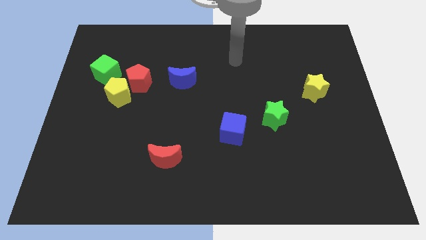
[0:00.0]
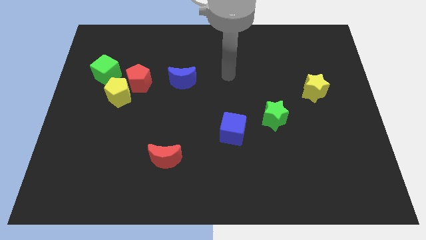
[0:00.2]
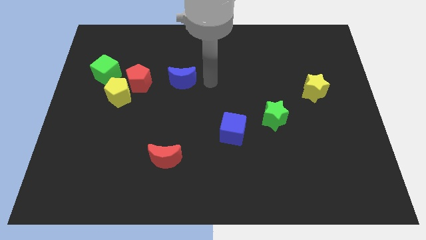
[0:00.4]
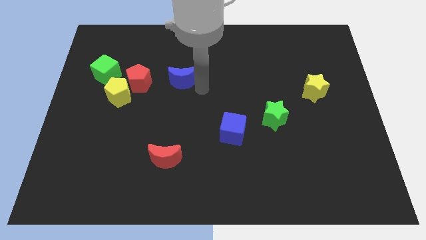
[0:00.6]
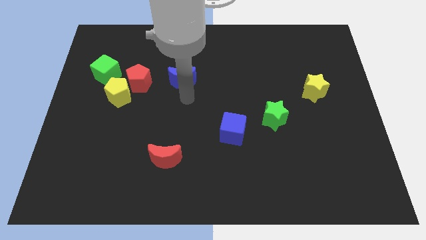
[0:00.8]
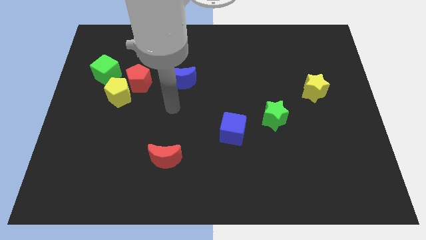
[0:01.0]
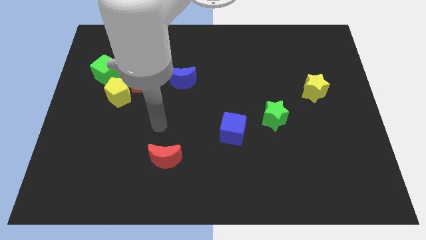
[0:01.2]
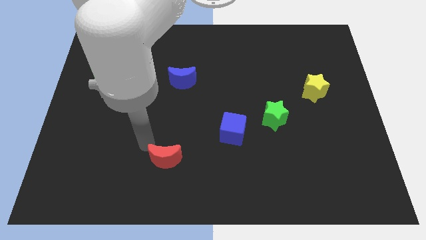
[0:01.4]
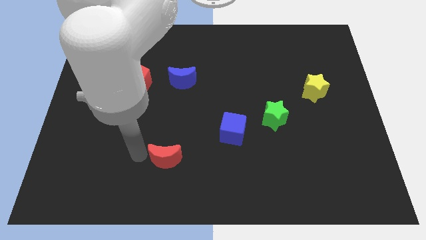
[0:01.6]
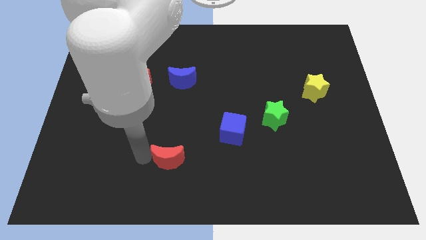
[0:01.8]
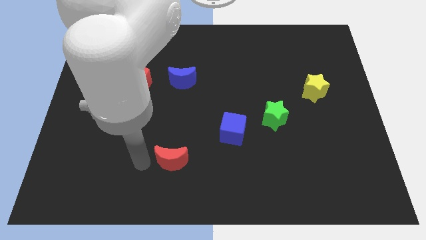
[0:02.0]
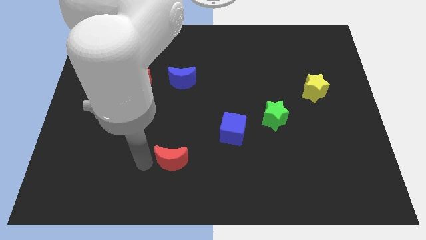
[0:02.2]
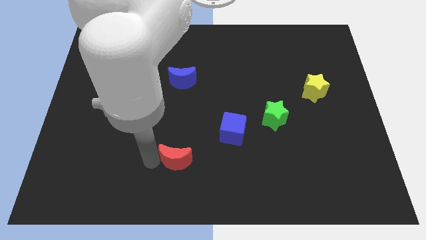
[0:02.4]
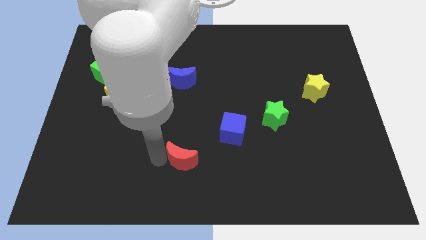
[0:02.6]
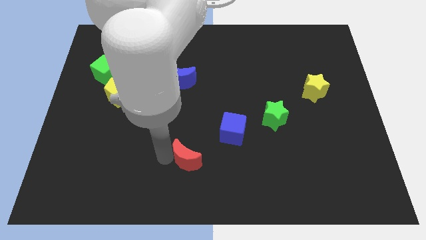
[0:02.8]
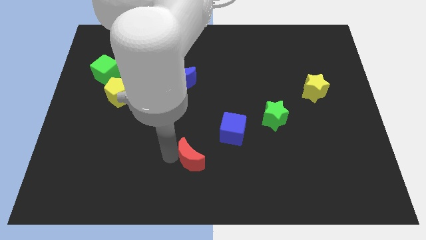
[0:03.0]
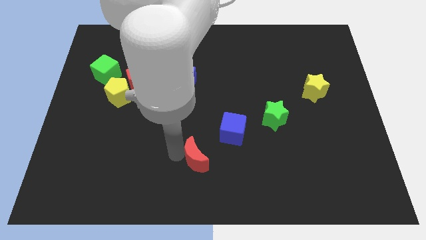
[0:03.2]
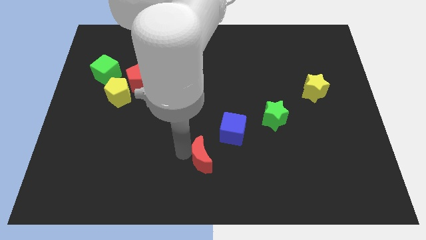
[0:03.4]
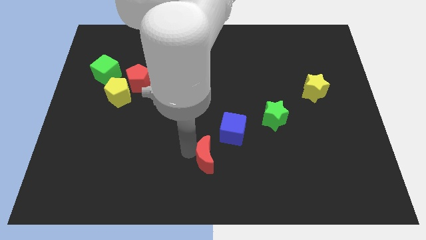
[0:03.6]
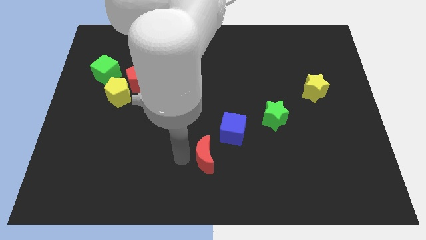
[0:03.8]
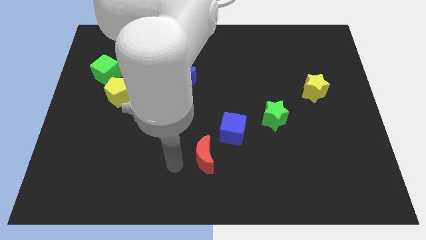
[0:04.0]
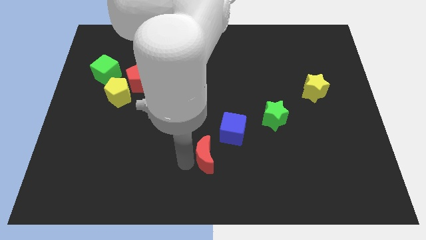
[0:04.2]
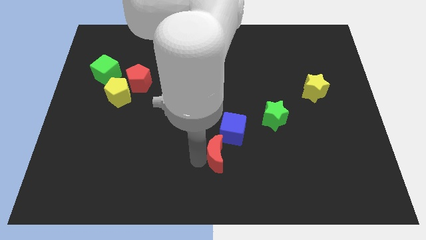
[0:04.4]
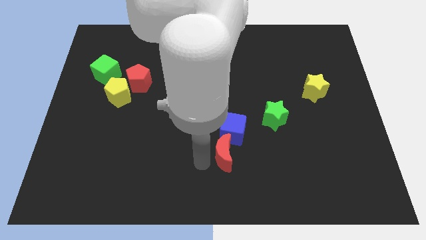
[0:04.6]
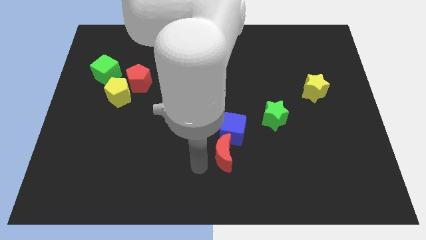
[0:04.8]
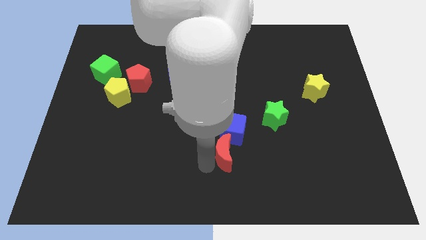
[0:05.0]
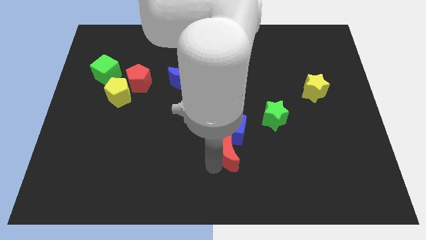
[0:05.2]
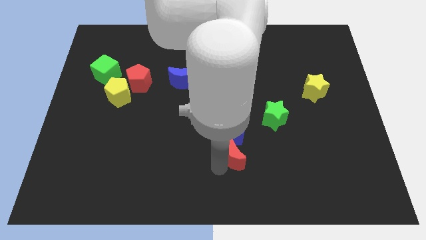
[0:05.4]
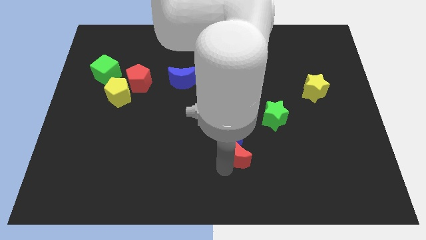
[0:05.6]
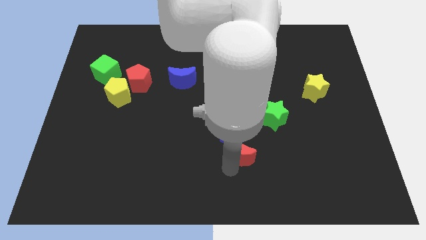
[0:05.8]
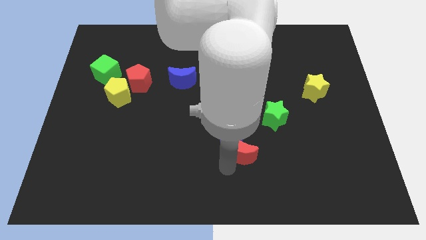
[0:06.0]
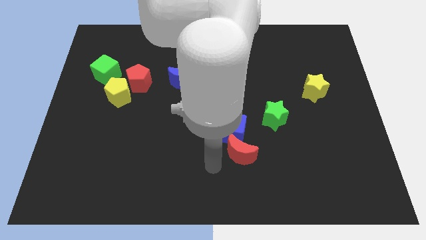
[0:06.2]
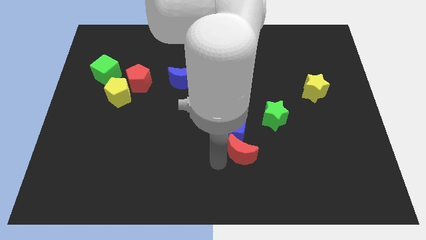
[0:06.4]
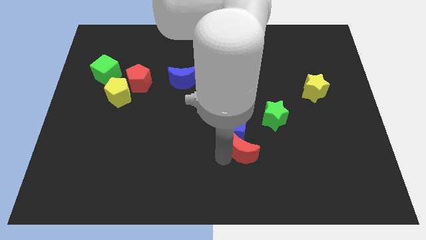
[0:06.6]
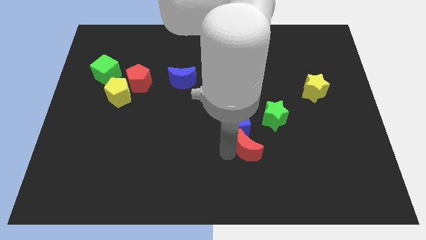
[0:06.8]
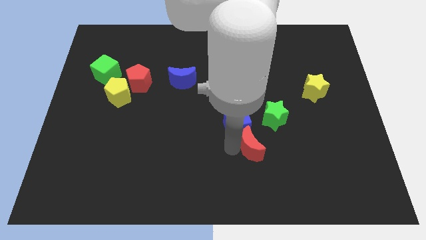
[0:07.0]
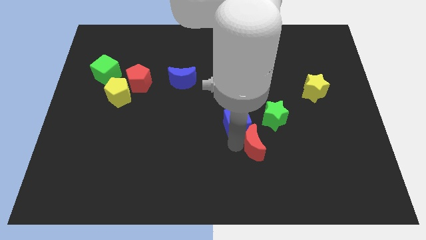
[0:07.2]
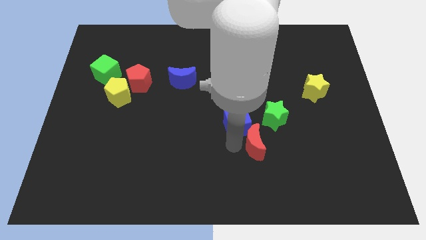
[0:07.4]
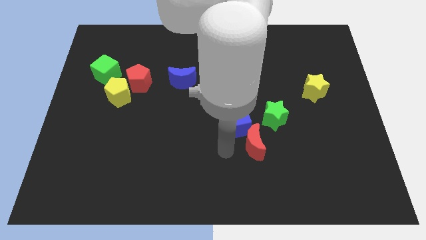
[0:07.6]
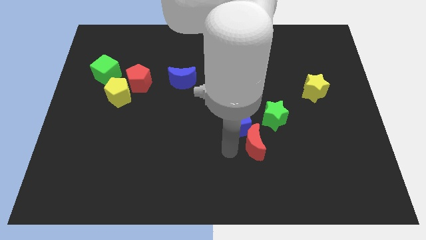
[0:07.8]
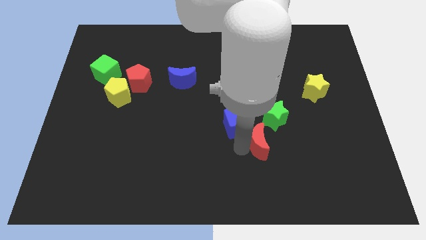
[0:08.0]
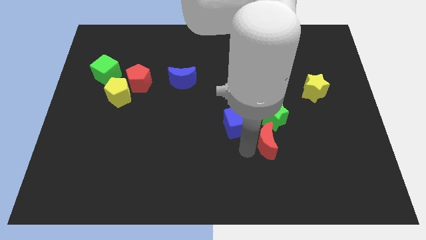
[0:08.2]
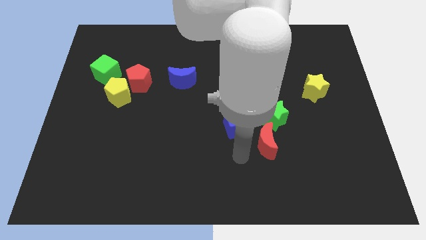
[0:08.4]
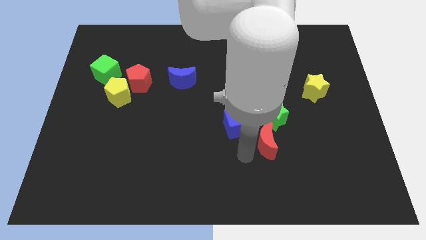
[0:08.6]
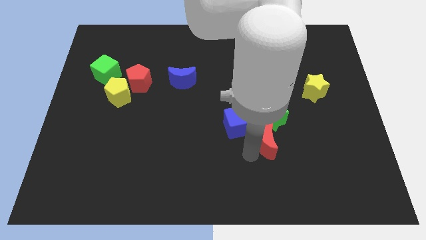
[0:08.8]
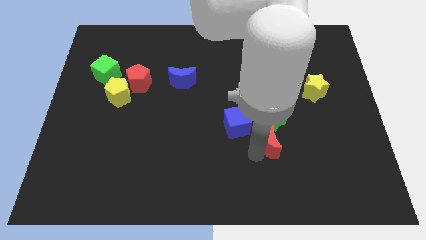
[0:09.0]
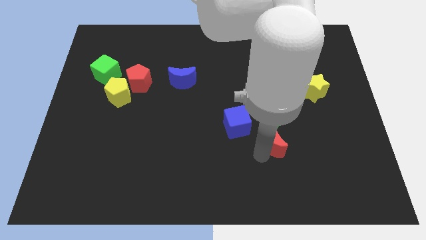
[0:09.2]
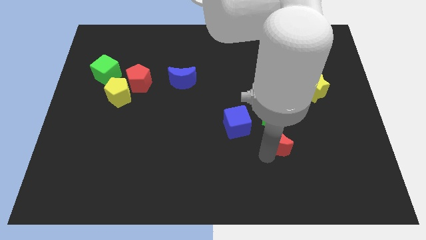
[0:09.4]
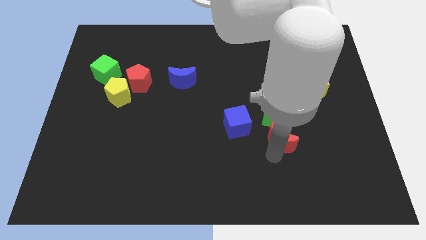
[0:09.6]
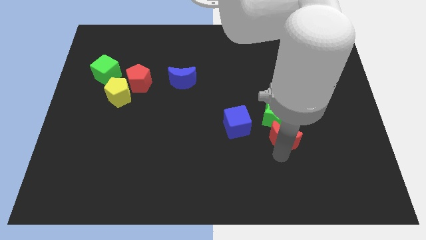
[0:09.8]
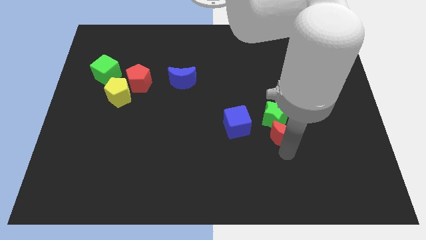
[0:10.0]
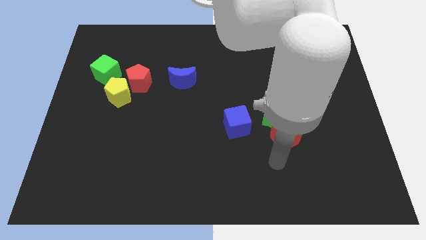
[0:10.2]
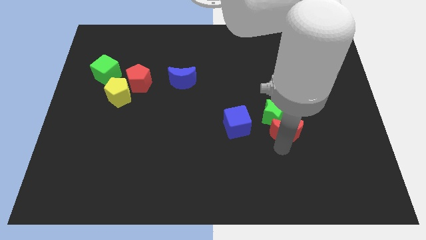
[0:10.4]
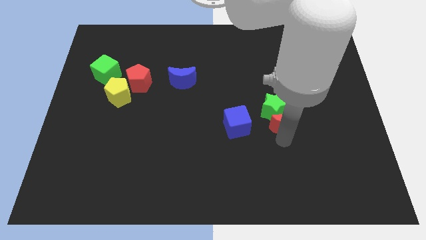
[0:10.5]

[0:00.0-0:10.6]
slide the red moon diagonally down and to the left of the yellow star

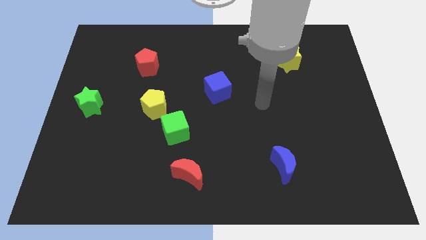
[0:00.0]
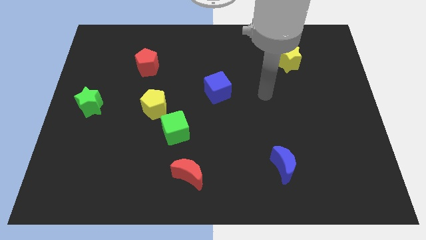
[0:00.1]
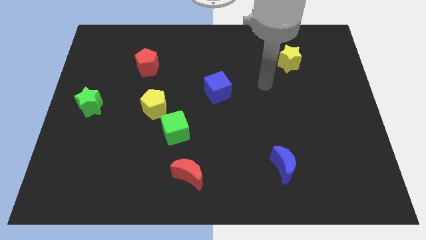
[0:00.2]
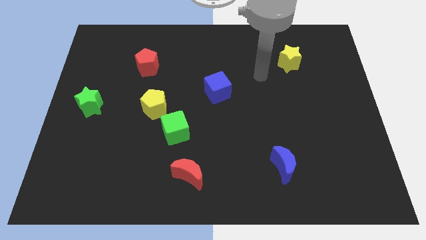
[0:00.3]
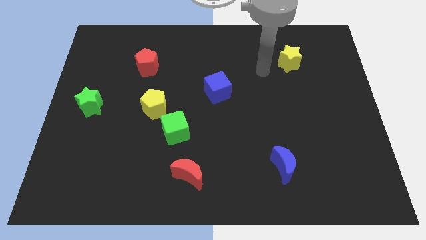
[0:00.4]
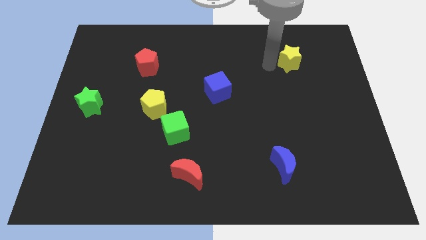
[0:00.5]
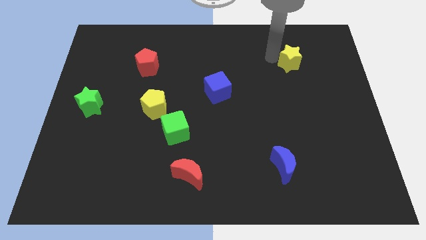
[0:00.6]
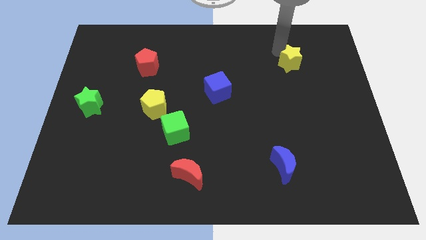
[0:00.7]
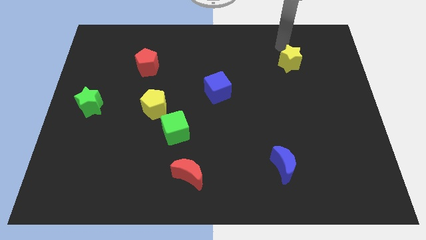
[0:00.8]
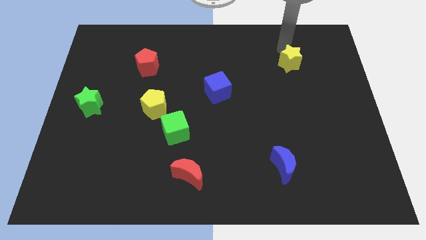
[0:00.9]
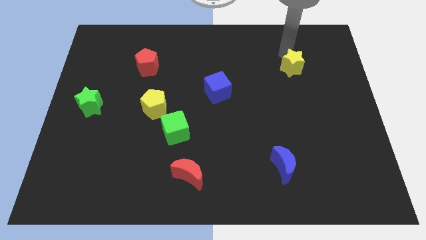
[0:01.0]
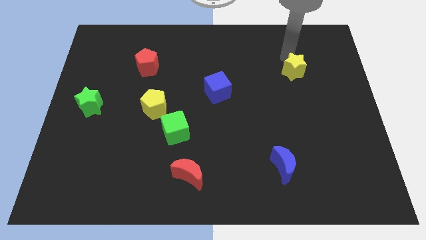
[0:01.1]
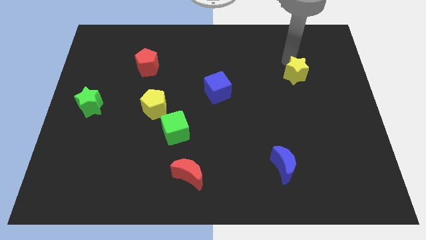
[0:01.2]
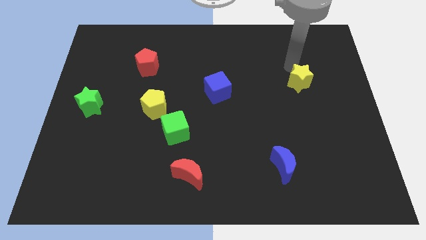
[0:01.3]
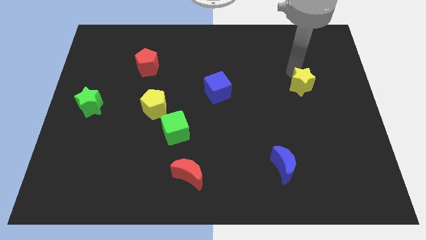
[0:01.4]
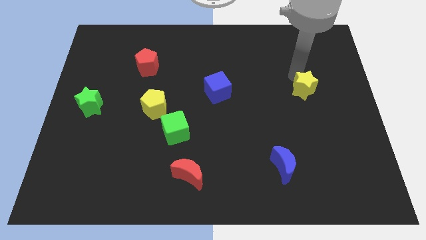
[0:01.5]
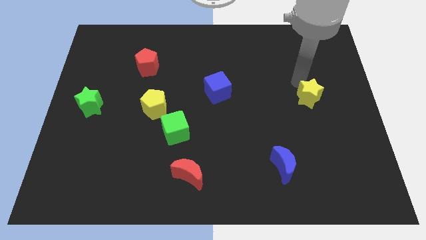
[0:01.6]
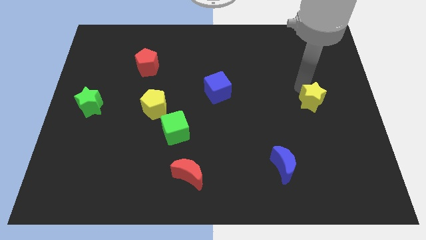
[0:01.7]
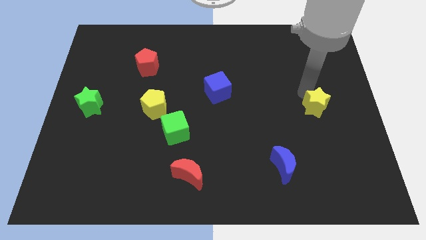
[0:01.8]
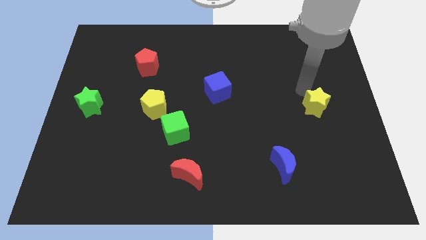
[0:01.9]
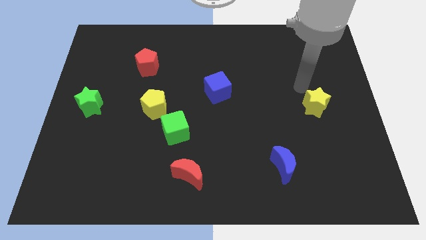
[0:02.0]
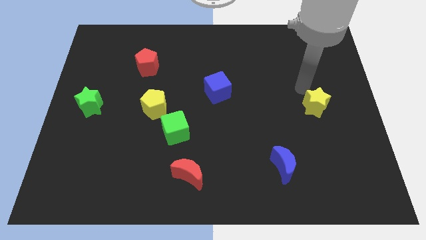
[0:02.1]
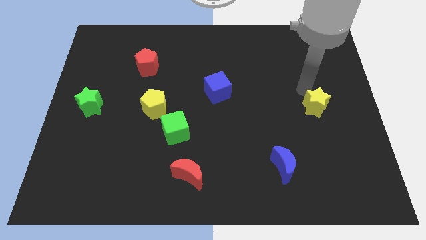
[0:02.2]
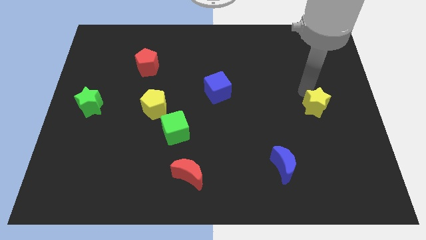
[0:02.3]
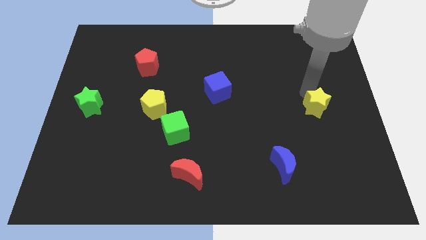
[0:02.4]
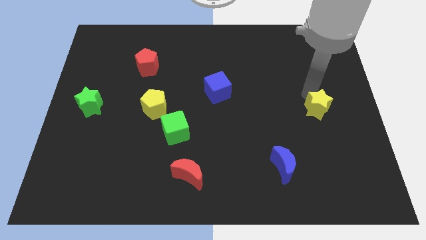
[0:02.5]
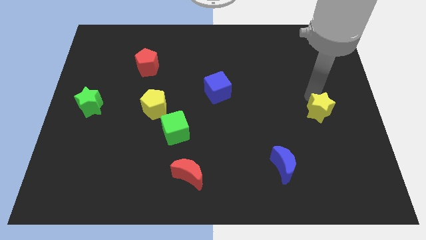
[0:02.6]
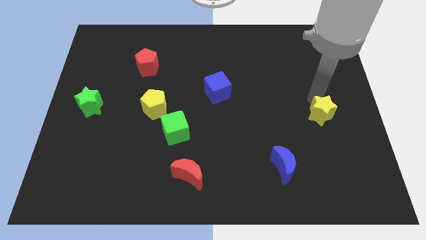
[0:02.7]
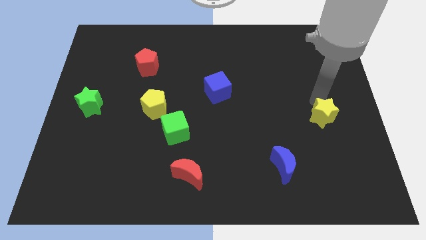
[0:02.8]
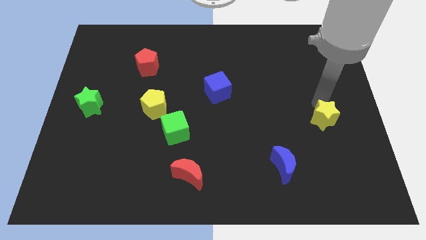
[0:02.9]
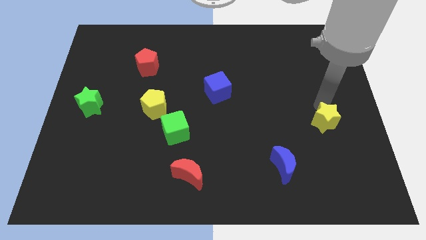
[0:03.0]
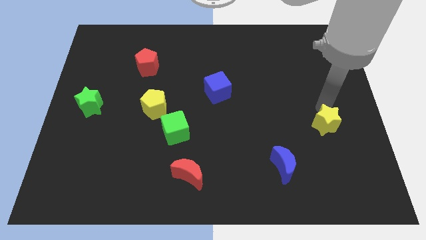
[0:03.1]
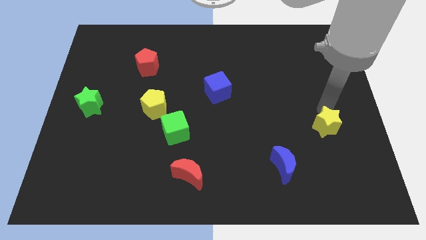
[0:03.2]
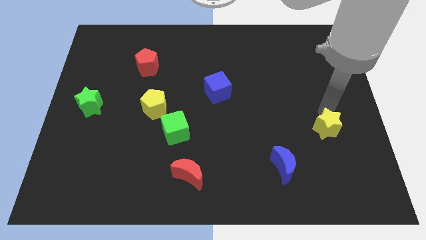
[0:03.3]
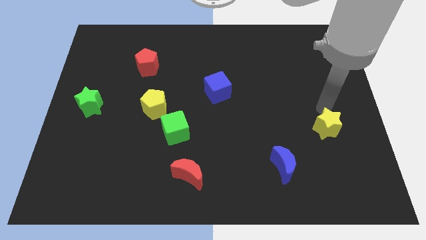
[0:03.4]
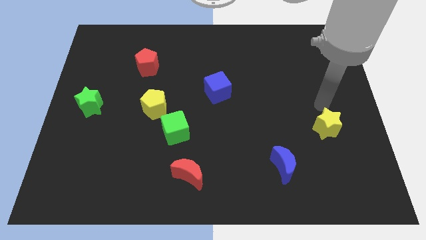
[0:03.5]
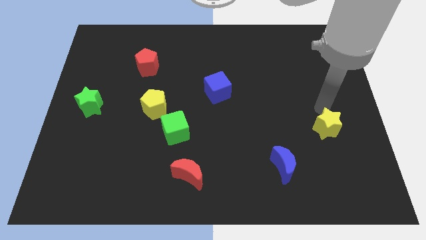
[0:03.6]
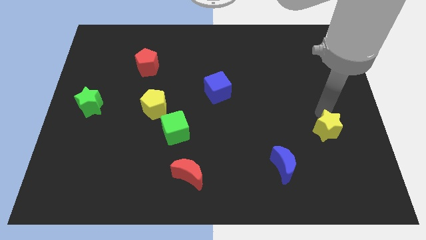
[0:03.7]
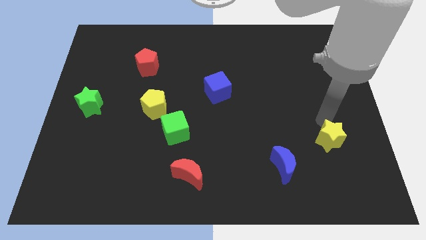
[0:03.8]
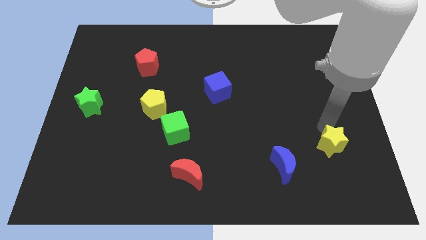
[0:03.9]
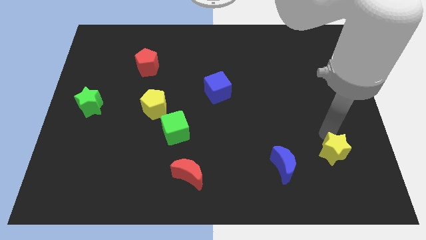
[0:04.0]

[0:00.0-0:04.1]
slide the yellow star to the right of the blue moon
